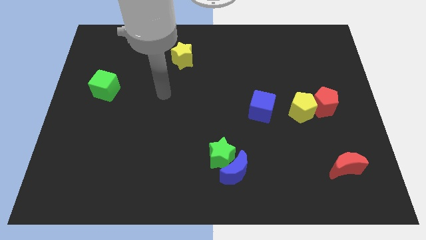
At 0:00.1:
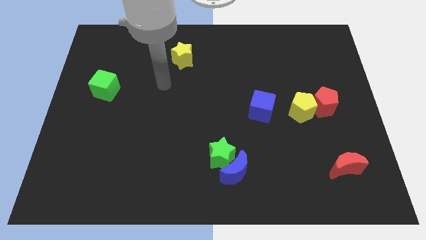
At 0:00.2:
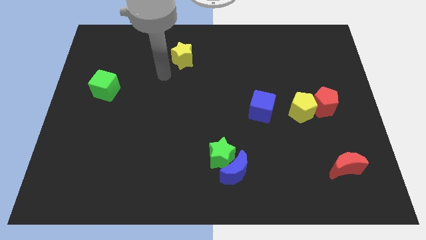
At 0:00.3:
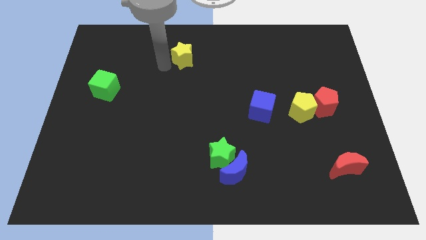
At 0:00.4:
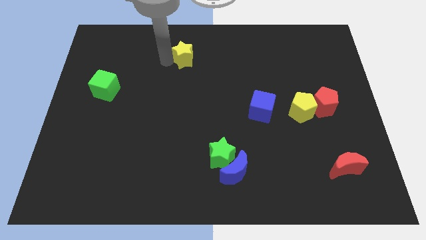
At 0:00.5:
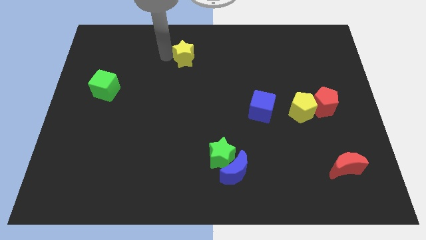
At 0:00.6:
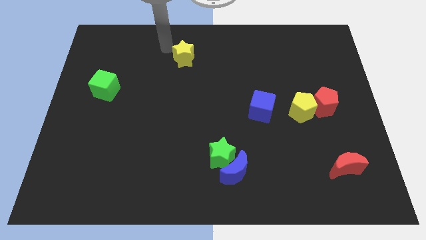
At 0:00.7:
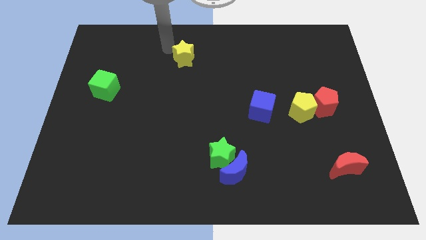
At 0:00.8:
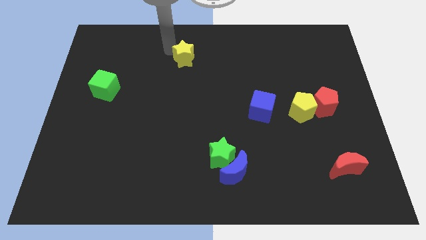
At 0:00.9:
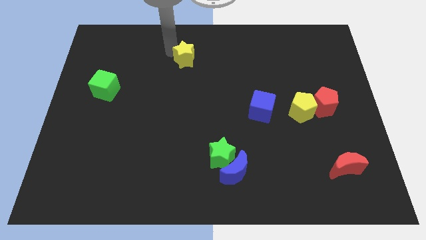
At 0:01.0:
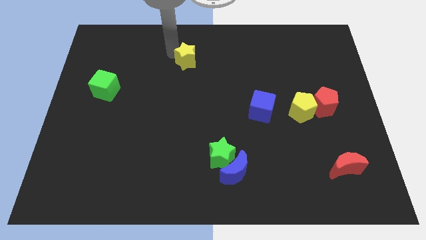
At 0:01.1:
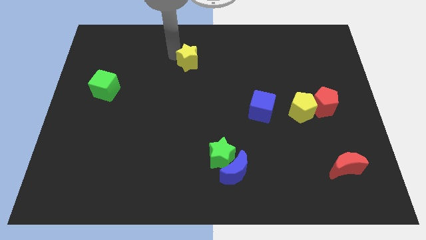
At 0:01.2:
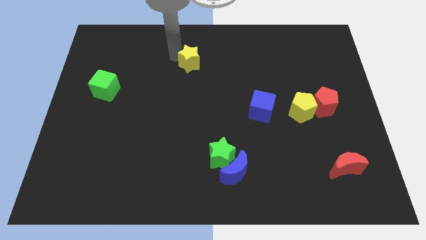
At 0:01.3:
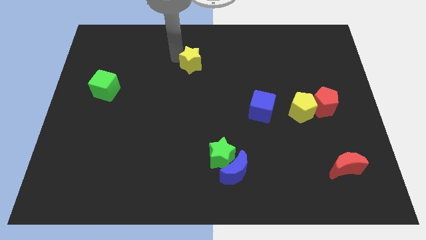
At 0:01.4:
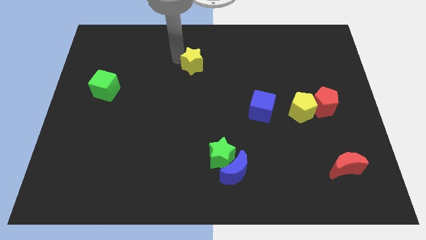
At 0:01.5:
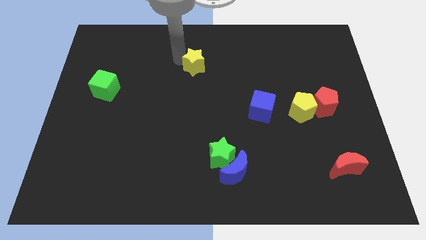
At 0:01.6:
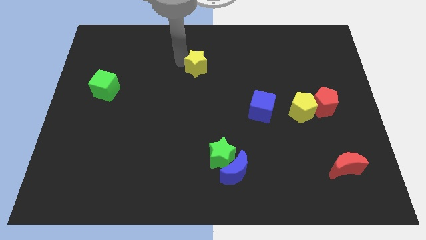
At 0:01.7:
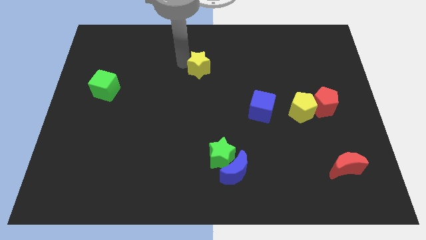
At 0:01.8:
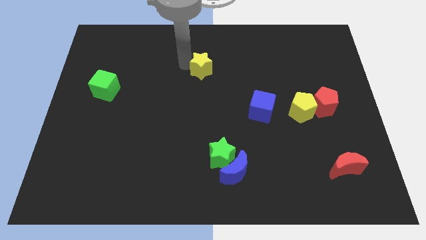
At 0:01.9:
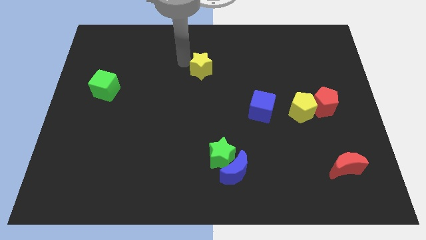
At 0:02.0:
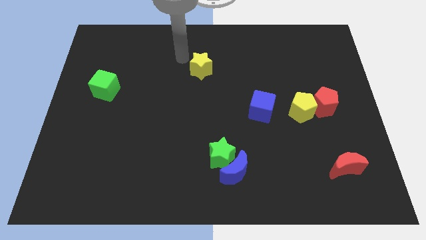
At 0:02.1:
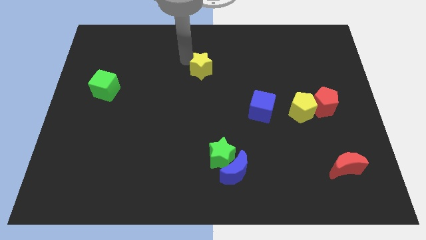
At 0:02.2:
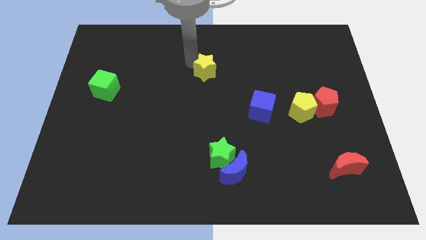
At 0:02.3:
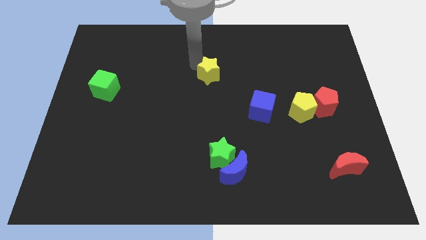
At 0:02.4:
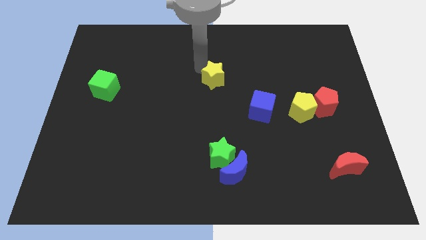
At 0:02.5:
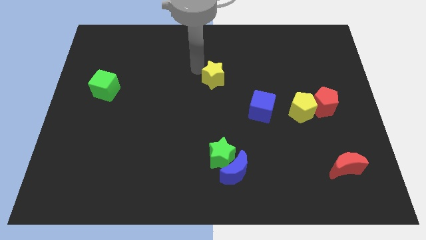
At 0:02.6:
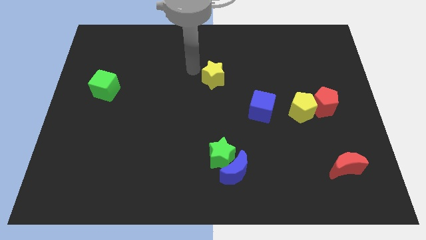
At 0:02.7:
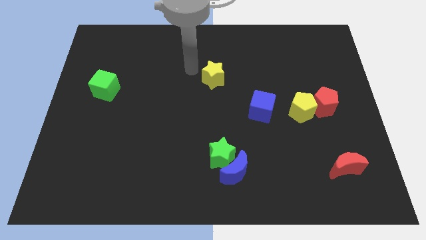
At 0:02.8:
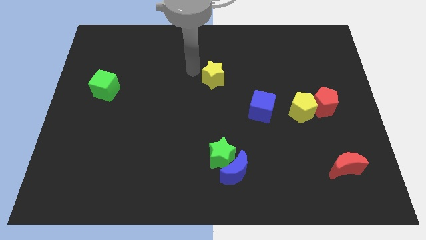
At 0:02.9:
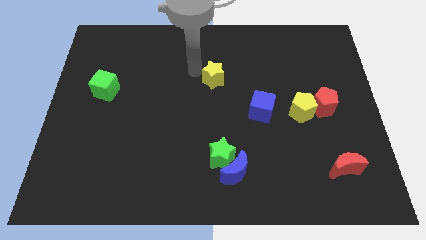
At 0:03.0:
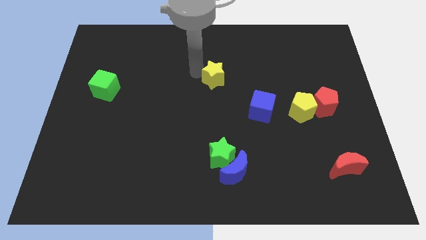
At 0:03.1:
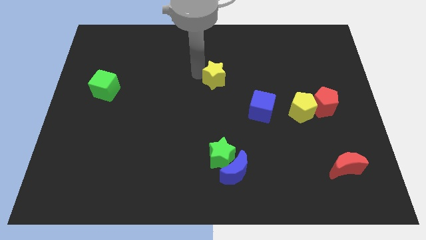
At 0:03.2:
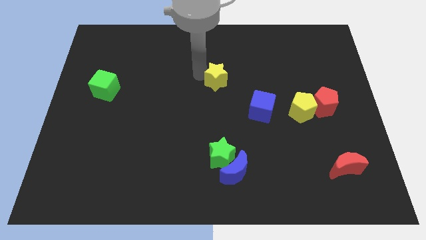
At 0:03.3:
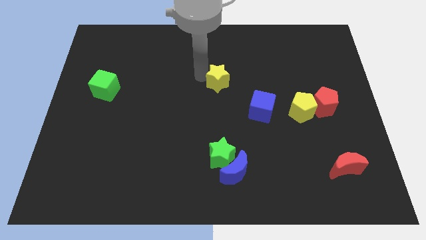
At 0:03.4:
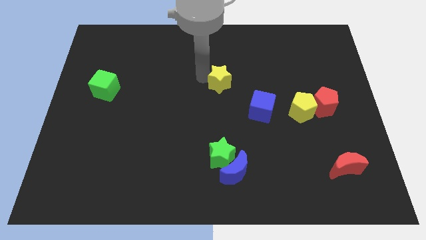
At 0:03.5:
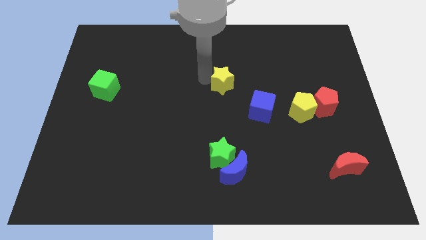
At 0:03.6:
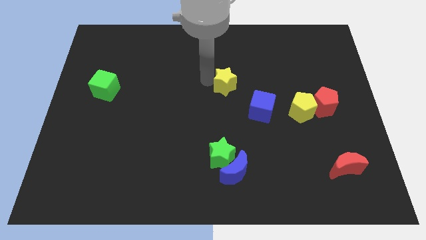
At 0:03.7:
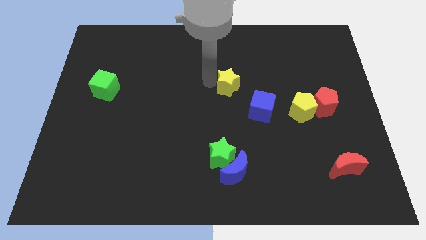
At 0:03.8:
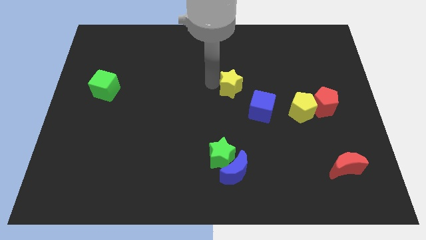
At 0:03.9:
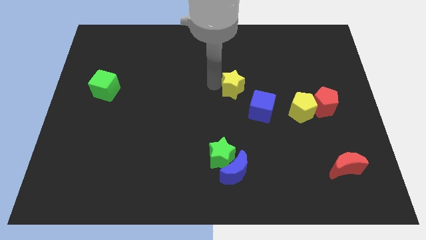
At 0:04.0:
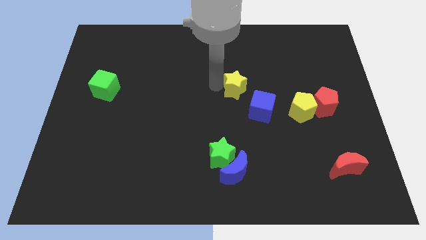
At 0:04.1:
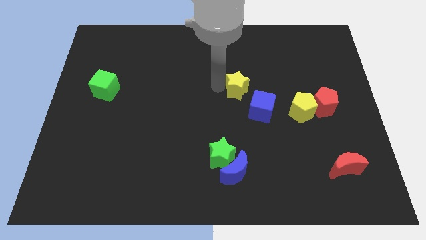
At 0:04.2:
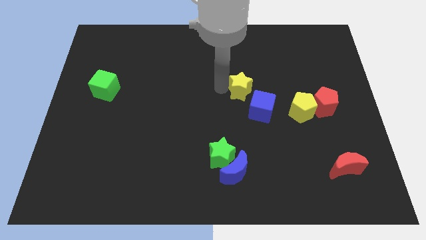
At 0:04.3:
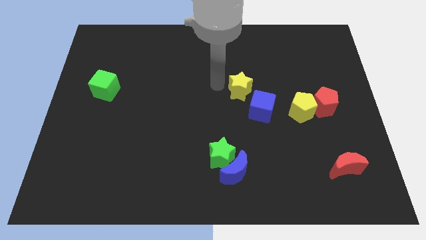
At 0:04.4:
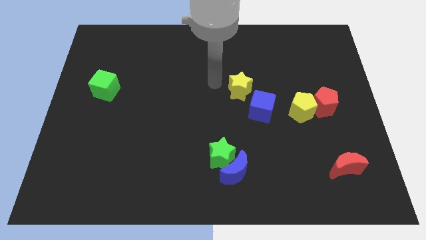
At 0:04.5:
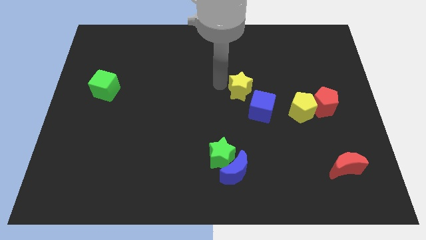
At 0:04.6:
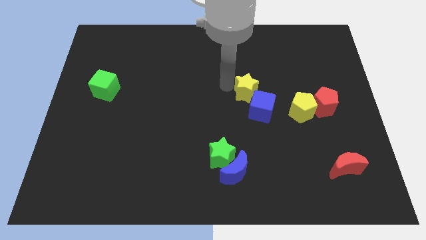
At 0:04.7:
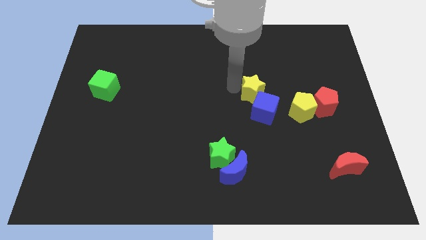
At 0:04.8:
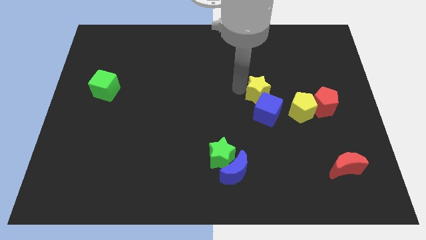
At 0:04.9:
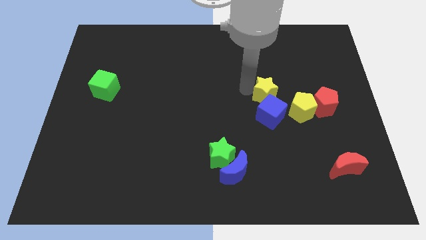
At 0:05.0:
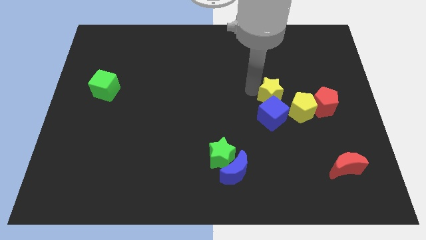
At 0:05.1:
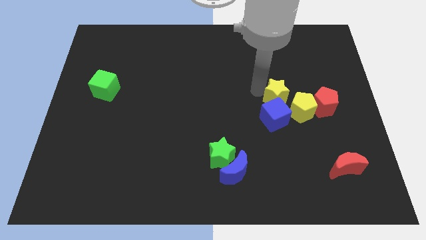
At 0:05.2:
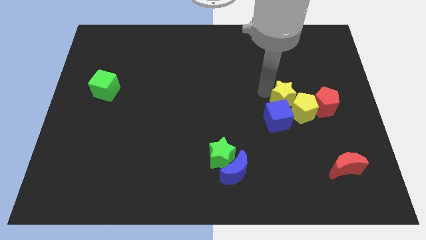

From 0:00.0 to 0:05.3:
move the yellow star towards the yellow pentagon

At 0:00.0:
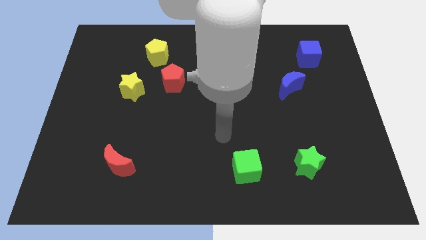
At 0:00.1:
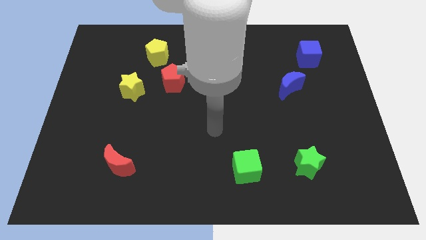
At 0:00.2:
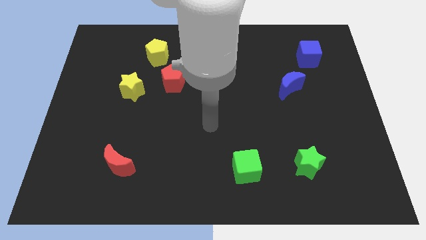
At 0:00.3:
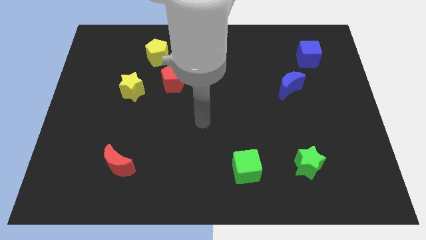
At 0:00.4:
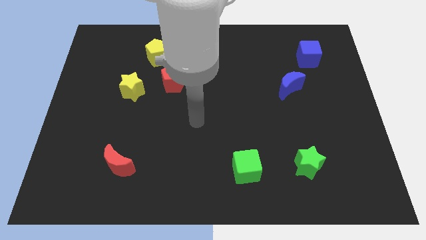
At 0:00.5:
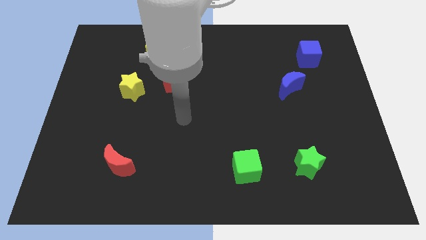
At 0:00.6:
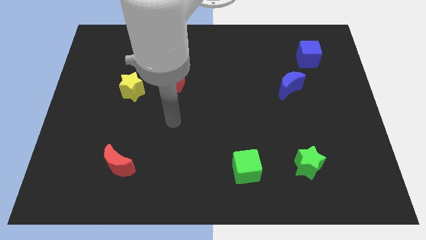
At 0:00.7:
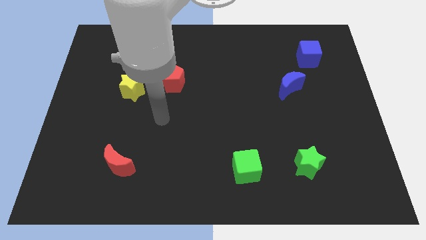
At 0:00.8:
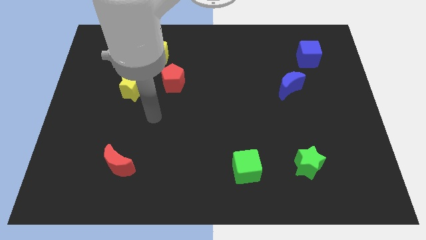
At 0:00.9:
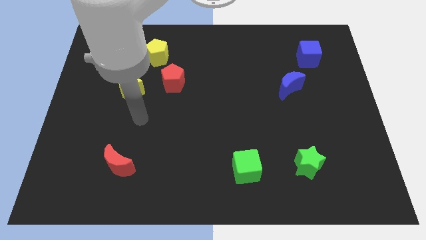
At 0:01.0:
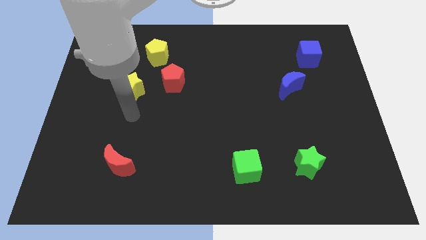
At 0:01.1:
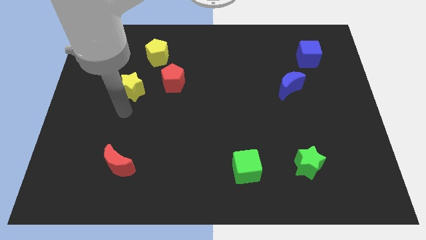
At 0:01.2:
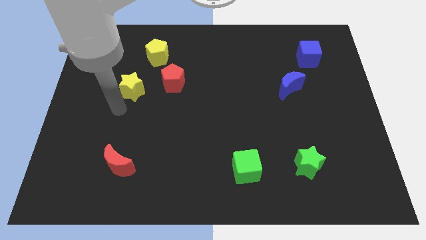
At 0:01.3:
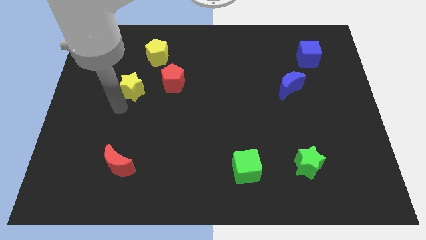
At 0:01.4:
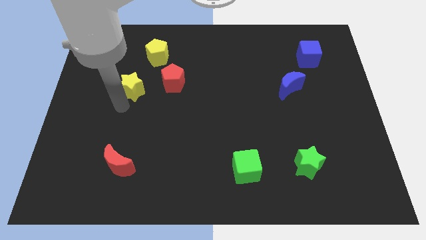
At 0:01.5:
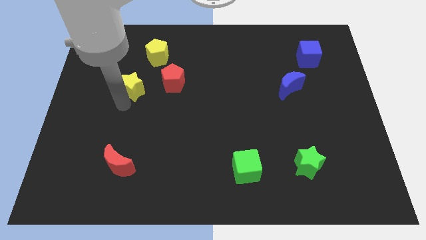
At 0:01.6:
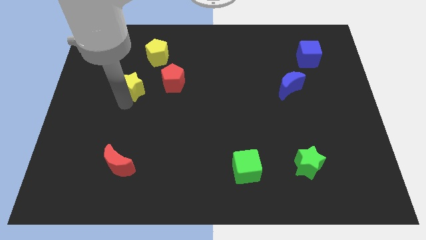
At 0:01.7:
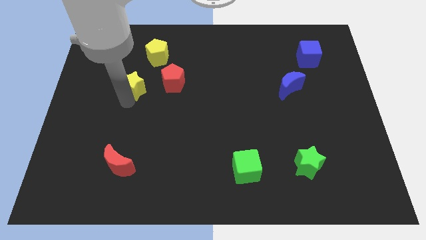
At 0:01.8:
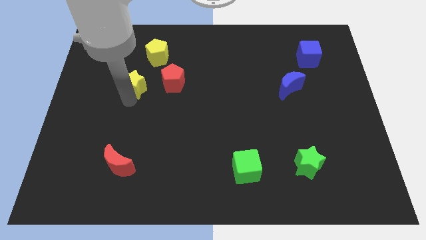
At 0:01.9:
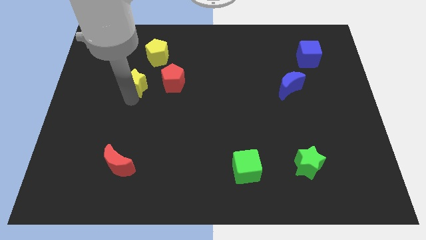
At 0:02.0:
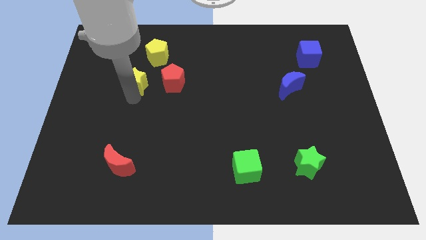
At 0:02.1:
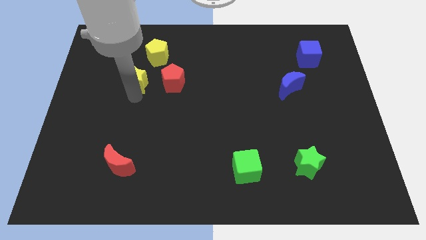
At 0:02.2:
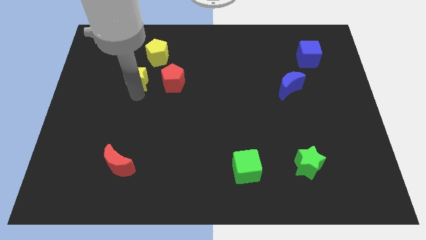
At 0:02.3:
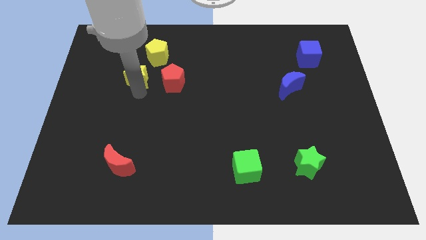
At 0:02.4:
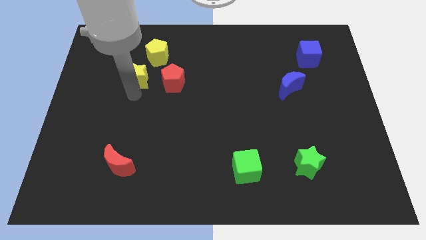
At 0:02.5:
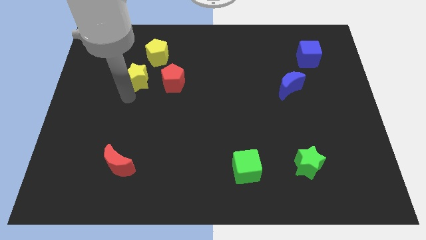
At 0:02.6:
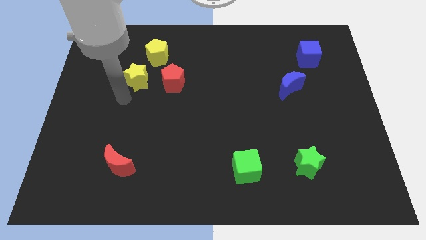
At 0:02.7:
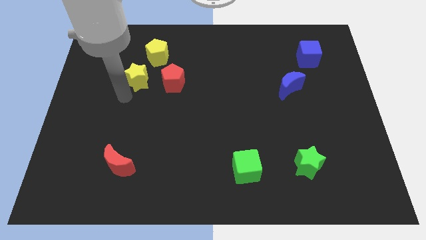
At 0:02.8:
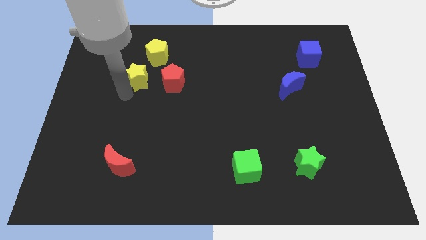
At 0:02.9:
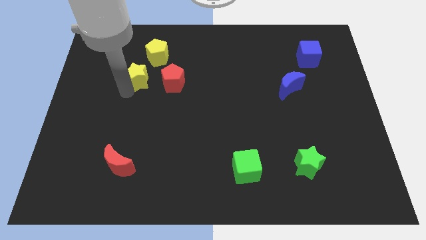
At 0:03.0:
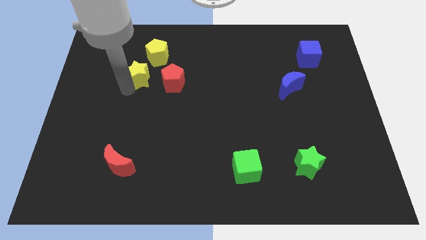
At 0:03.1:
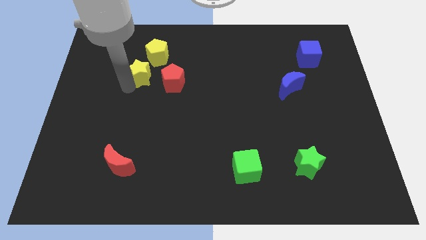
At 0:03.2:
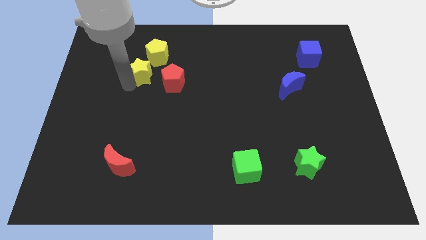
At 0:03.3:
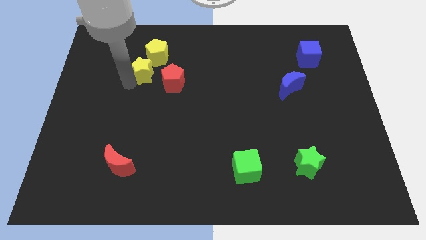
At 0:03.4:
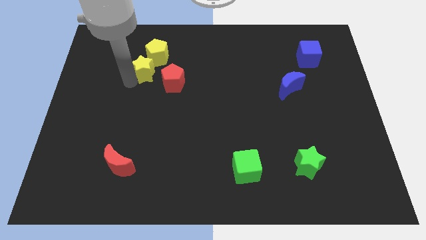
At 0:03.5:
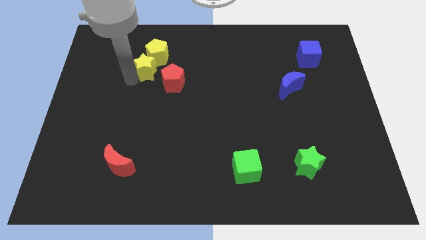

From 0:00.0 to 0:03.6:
push the yellow star towards the yellow pentagon
